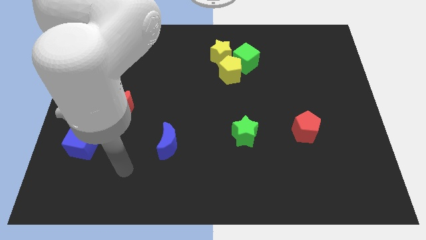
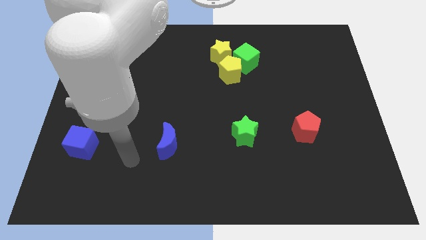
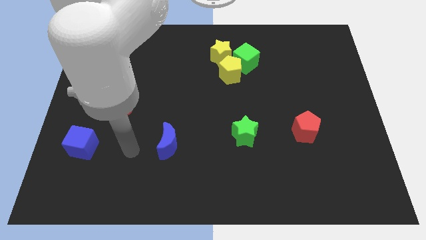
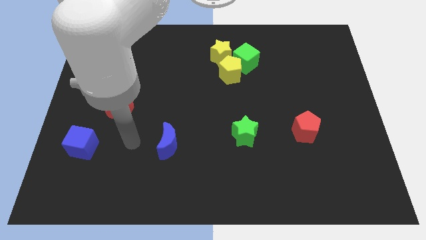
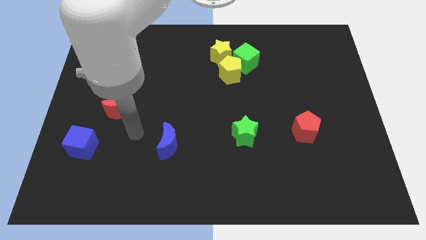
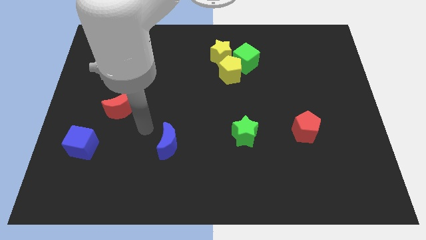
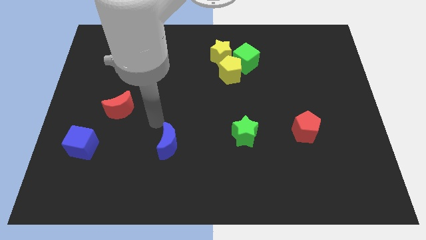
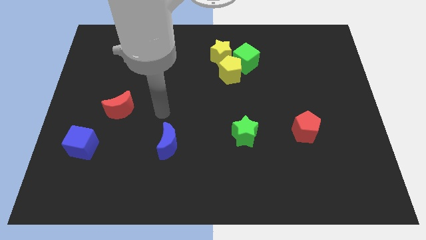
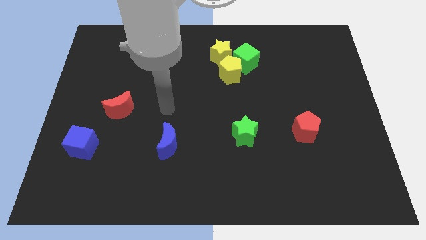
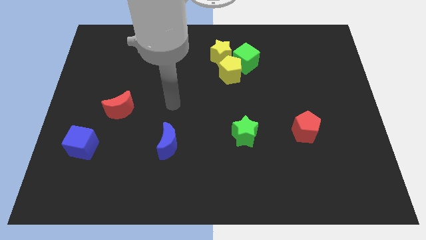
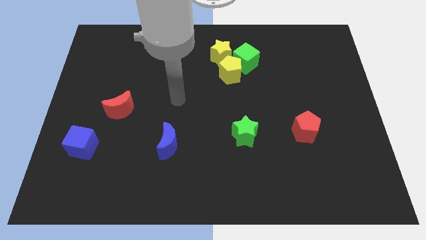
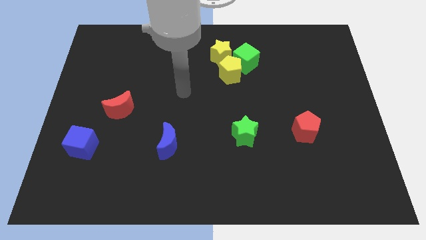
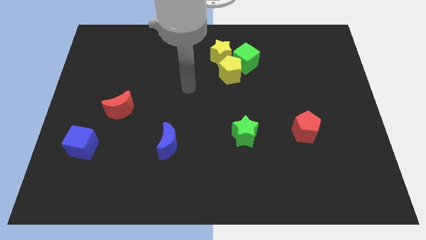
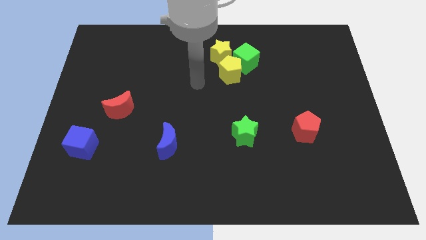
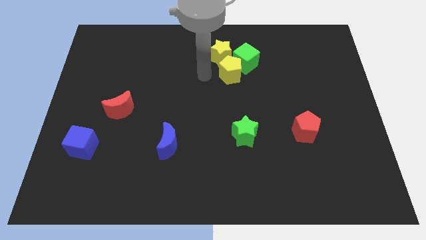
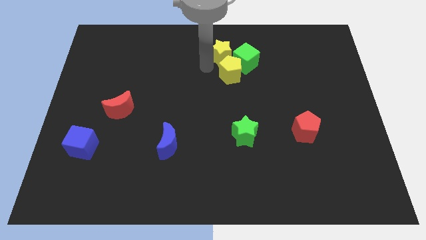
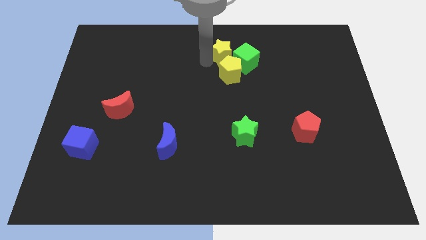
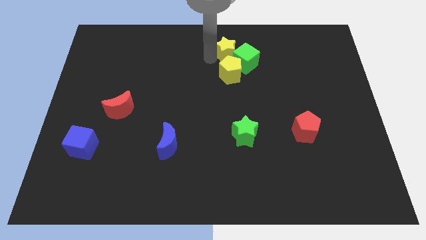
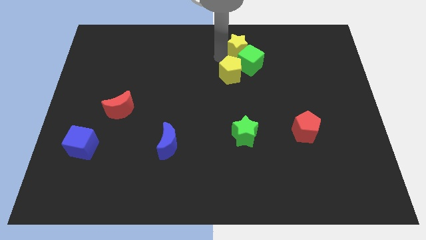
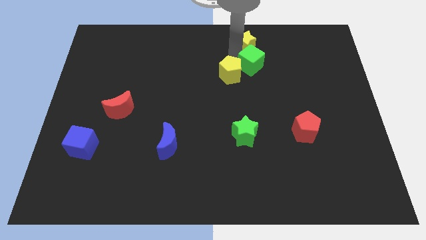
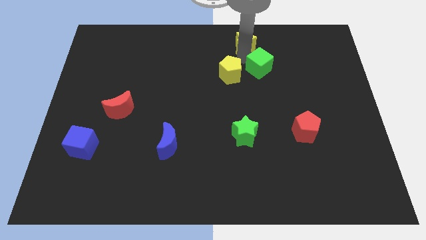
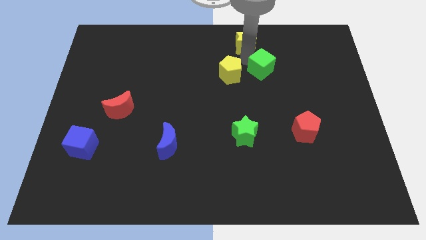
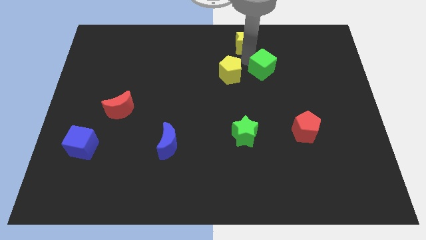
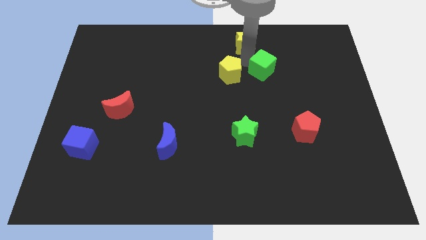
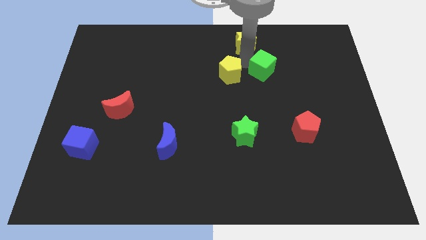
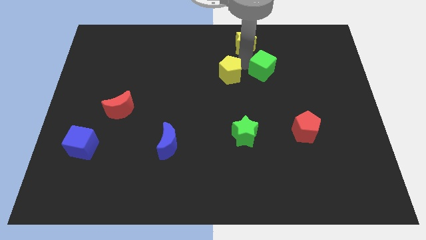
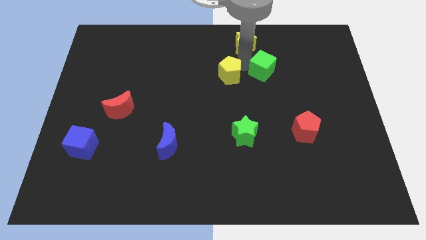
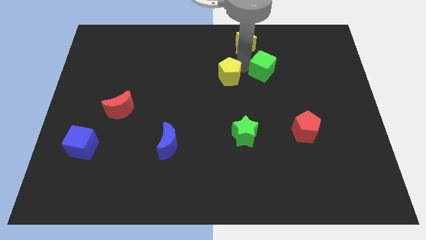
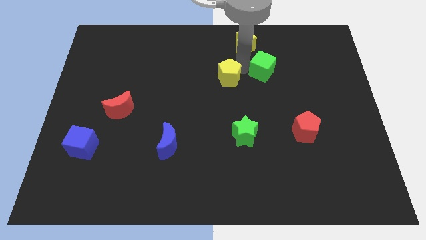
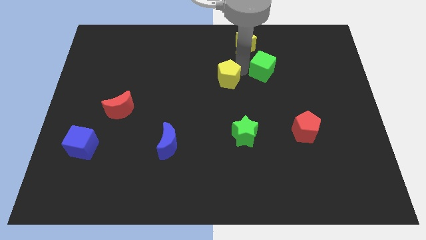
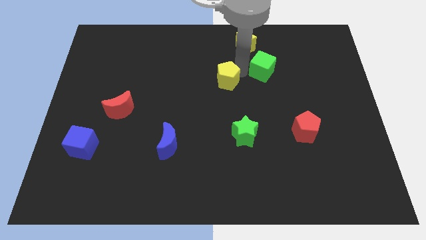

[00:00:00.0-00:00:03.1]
pull the yellow pentagon apart from the green cube and yellow star

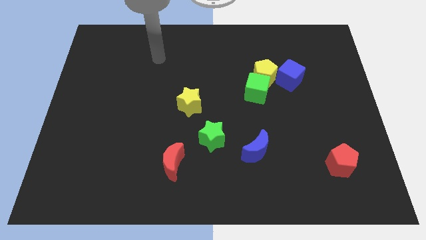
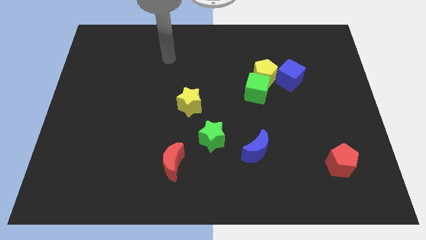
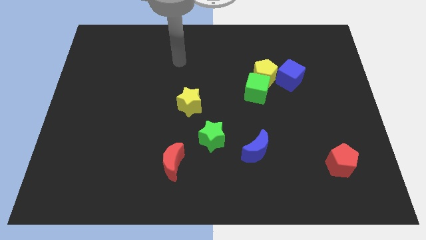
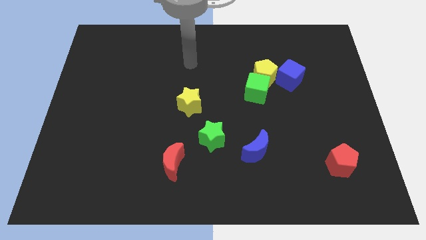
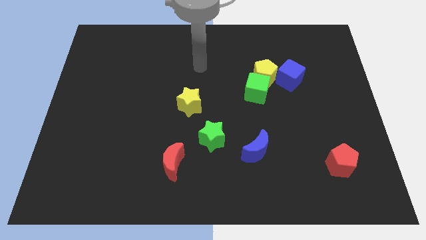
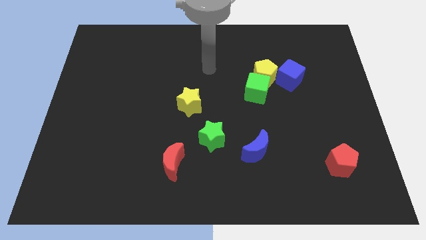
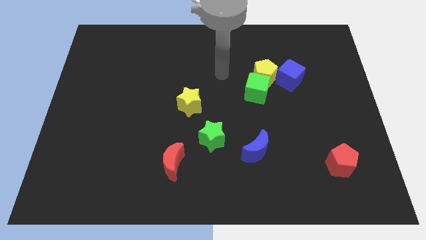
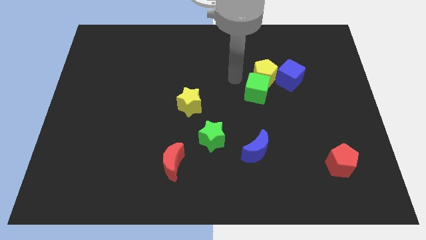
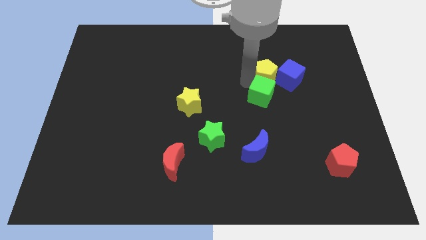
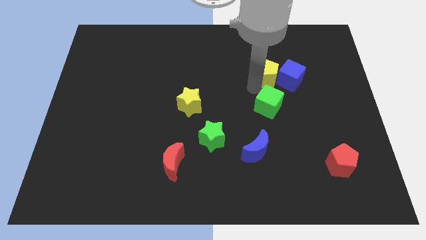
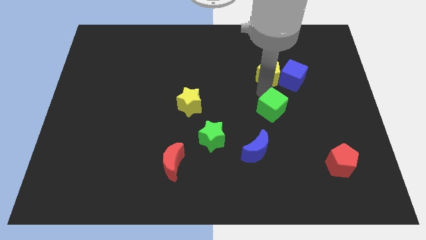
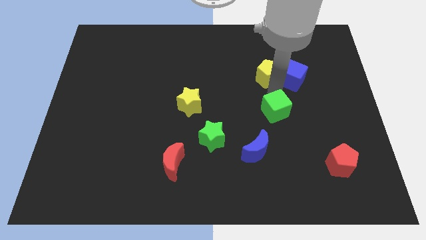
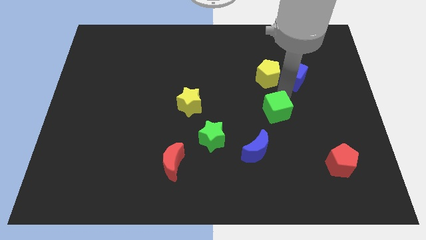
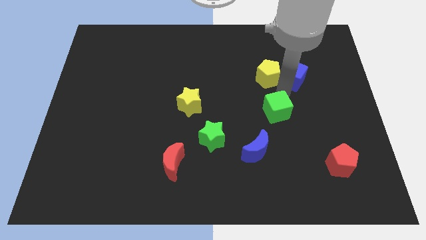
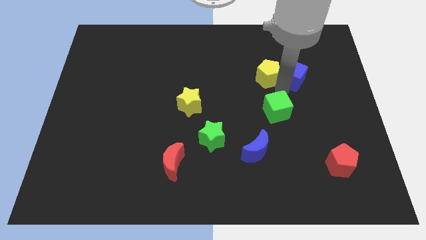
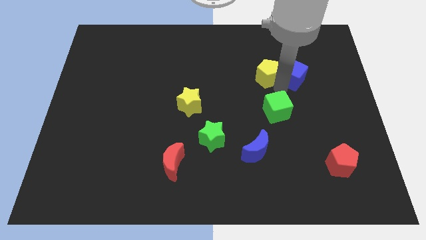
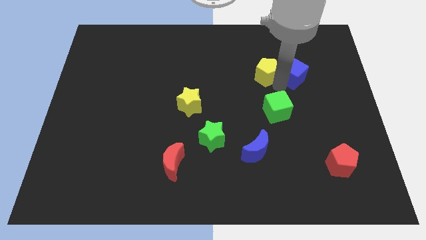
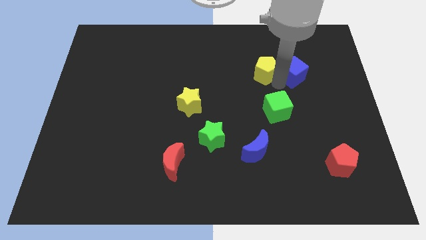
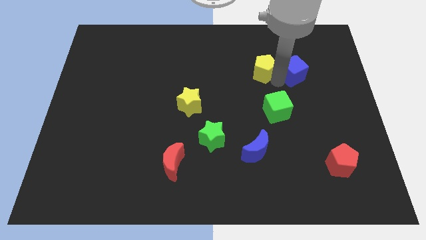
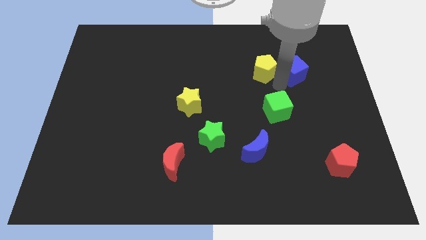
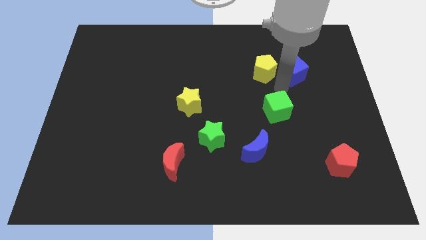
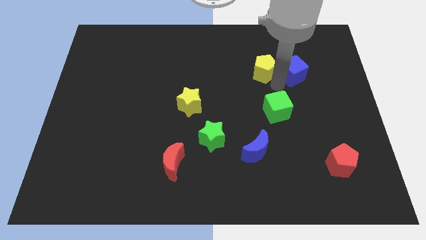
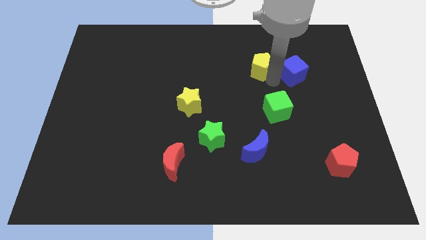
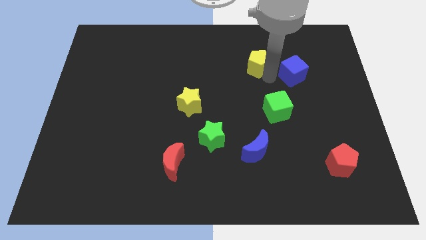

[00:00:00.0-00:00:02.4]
move the yellow pentagon away from the green cube and blue cube

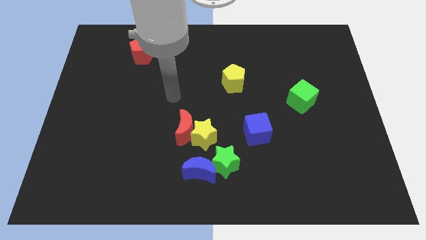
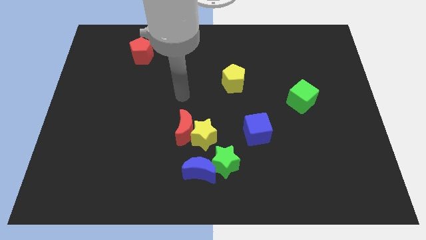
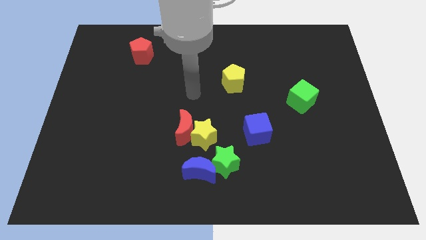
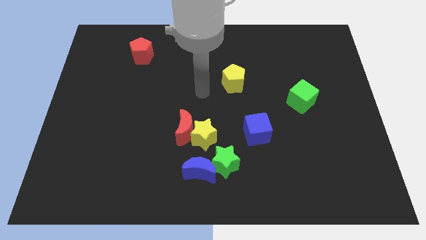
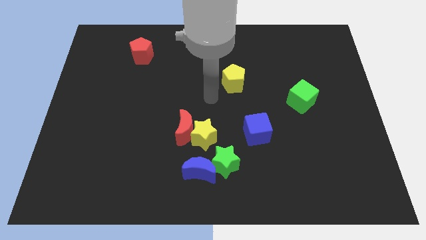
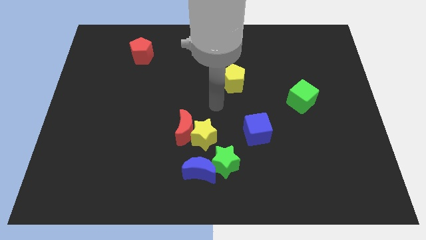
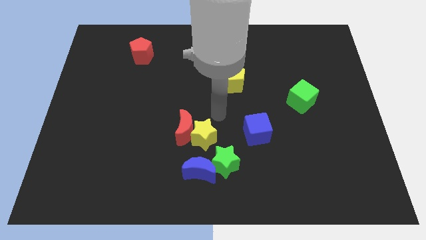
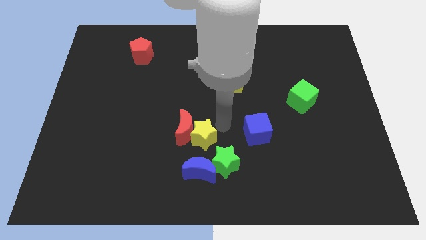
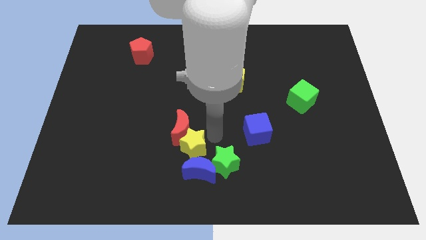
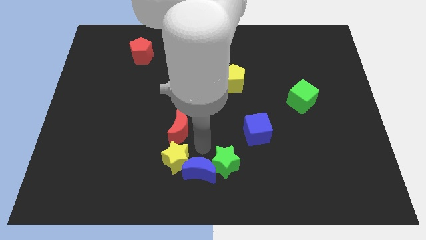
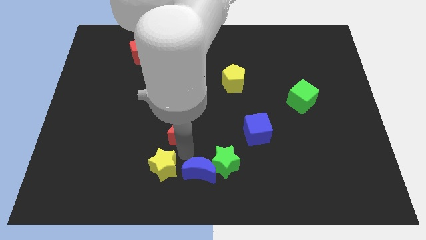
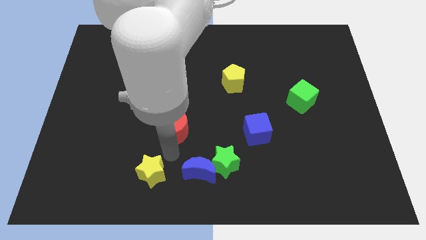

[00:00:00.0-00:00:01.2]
pull the red moon apart from the yellow star

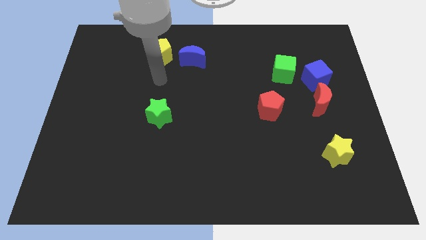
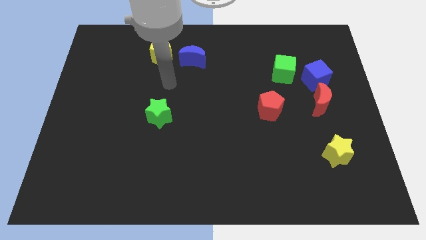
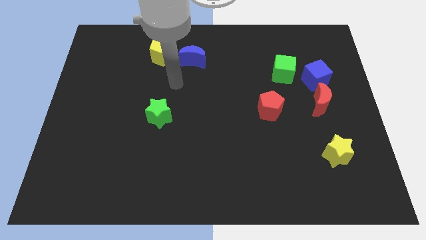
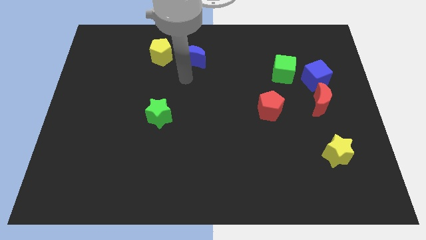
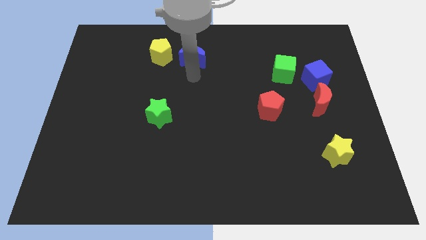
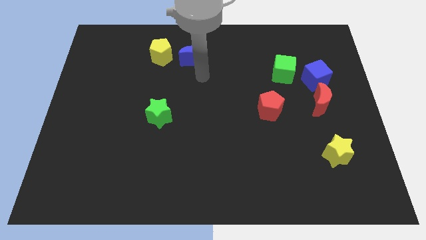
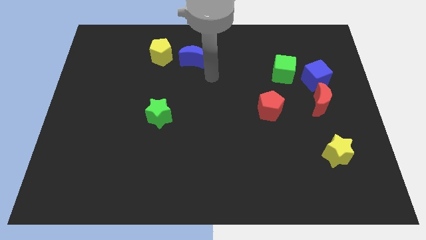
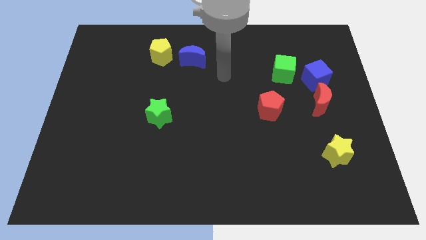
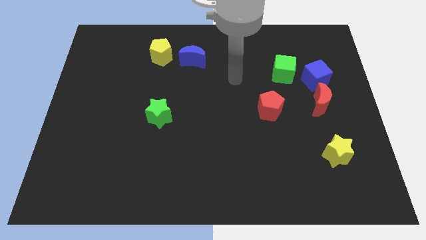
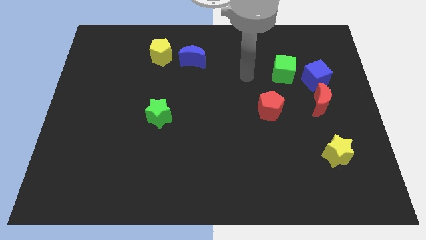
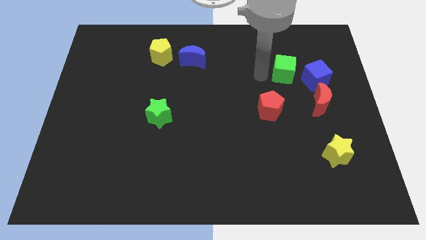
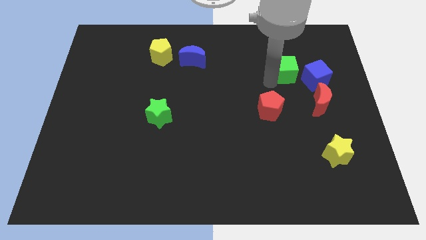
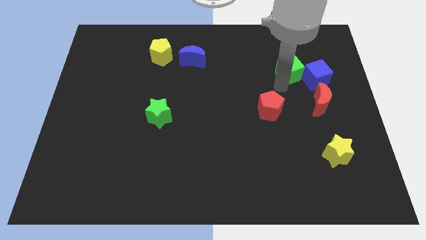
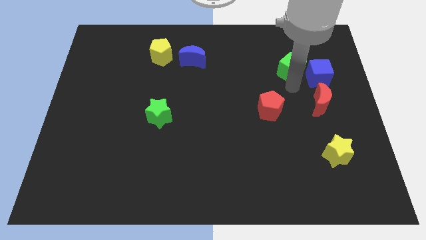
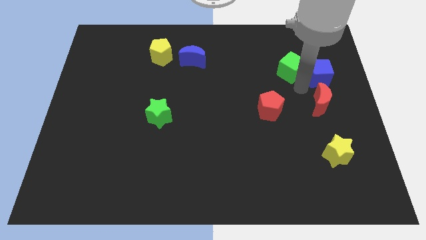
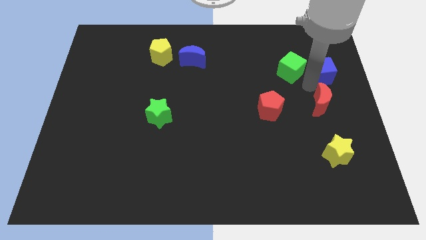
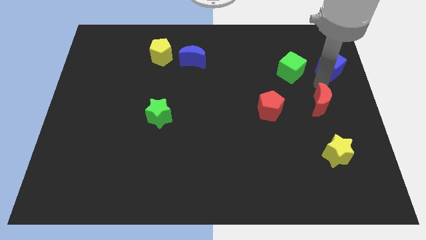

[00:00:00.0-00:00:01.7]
separate the red moon from the blue cube

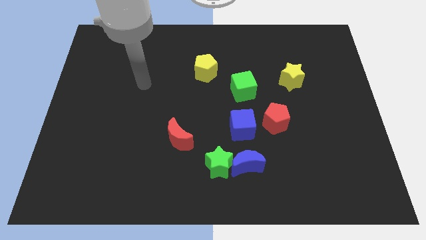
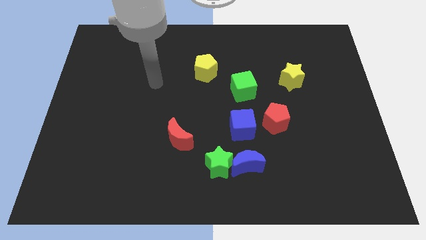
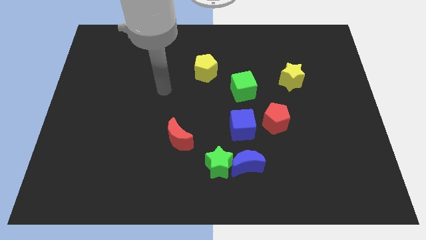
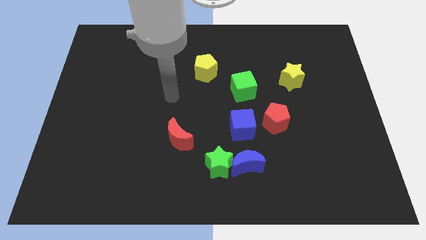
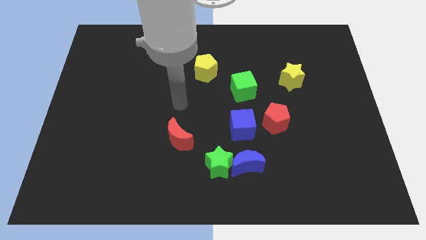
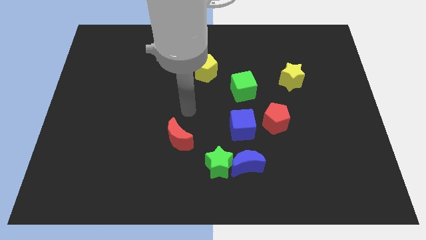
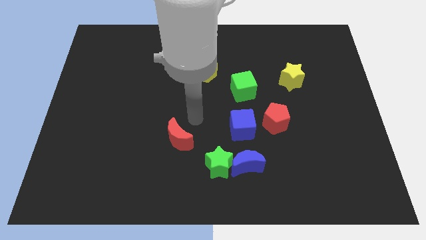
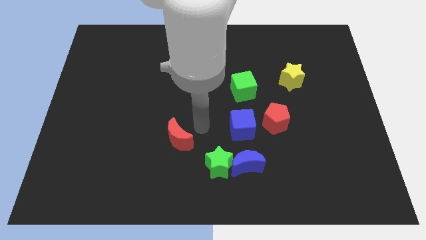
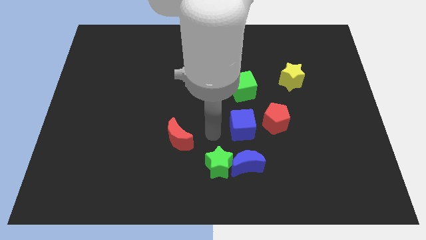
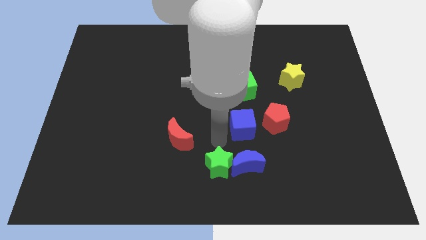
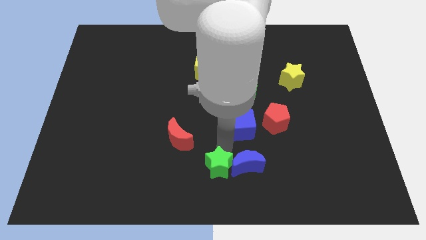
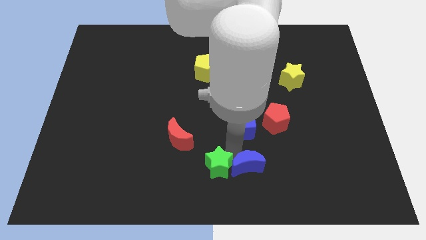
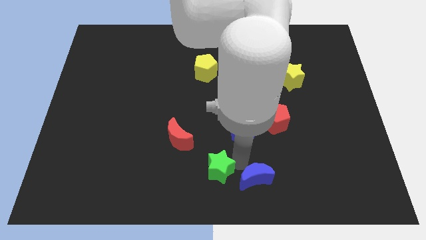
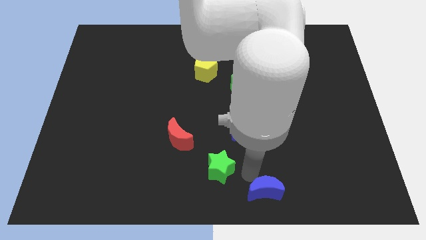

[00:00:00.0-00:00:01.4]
separate the green star from the blue moon
